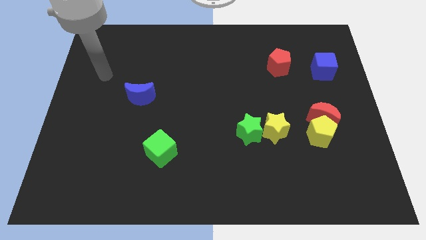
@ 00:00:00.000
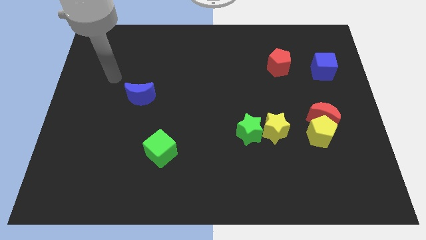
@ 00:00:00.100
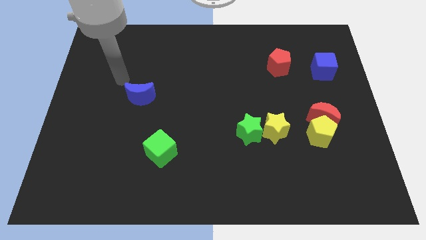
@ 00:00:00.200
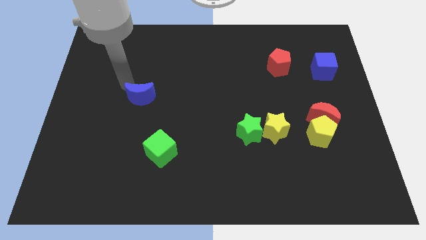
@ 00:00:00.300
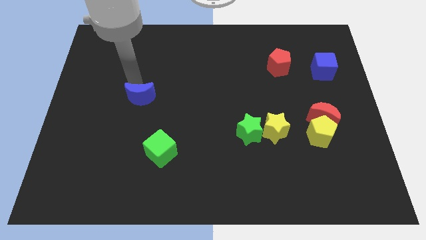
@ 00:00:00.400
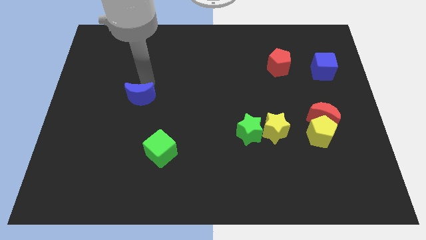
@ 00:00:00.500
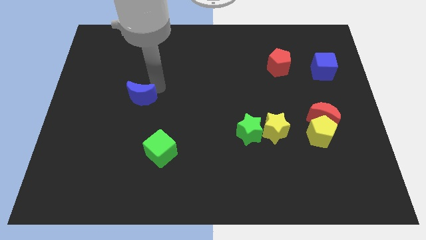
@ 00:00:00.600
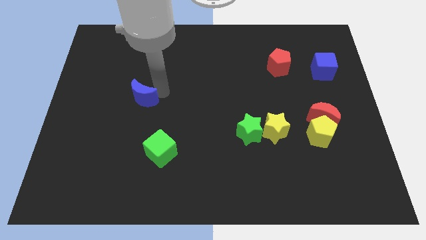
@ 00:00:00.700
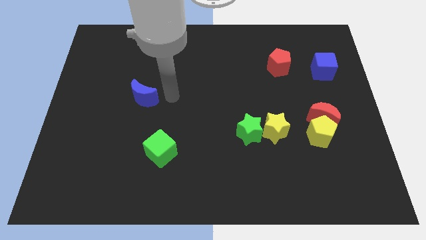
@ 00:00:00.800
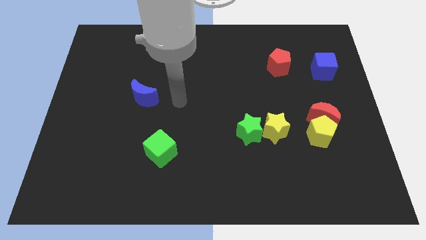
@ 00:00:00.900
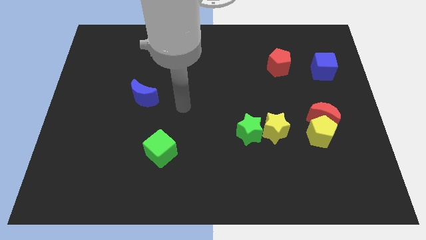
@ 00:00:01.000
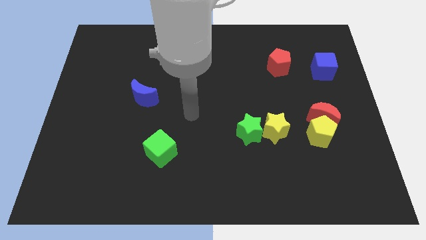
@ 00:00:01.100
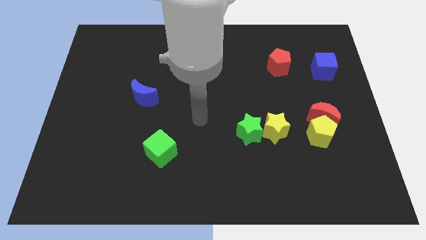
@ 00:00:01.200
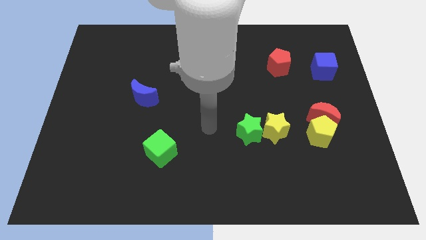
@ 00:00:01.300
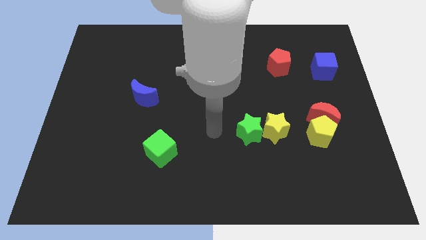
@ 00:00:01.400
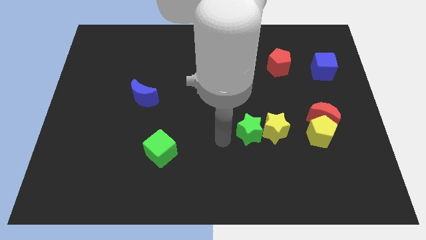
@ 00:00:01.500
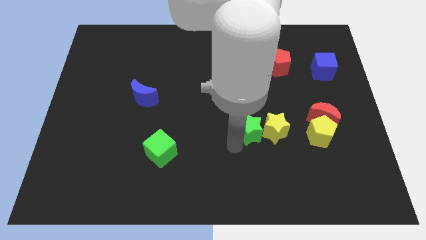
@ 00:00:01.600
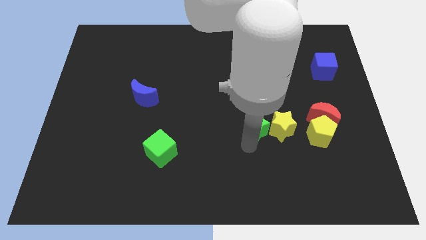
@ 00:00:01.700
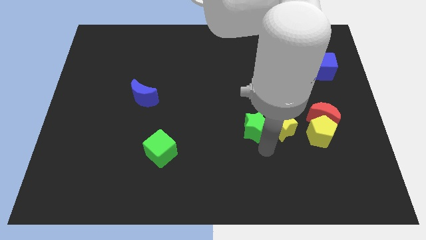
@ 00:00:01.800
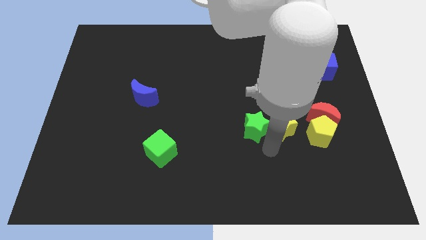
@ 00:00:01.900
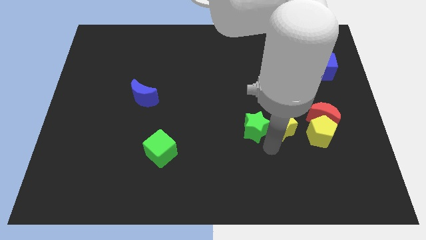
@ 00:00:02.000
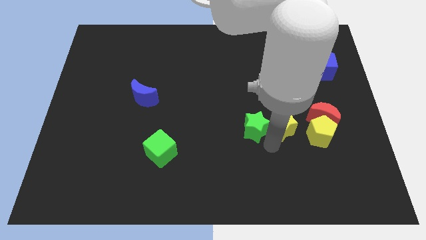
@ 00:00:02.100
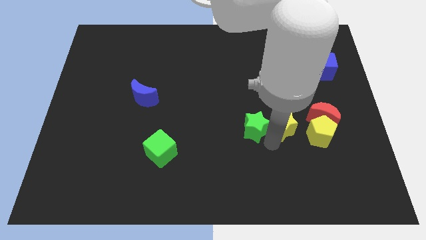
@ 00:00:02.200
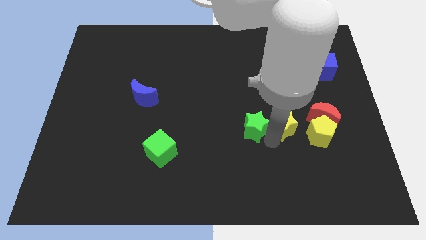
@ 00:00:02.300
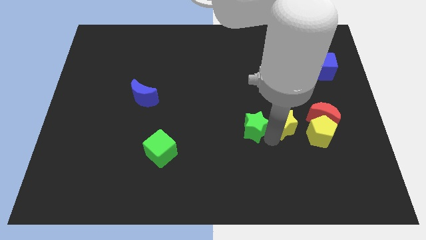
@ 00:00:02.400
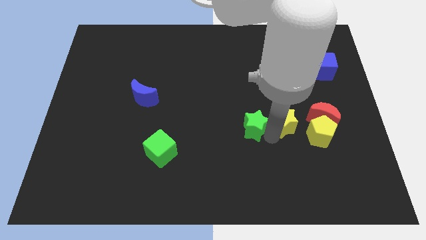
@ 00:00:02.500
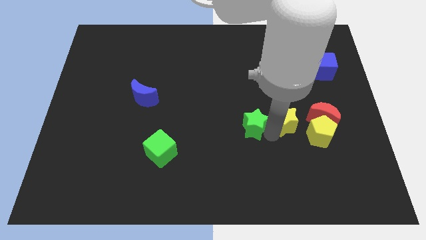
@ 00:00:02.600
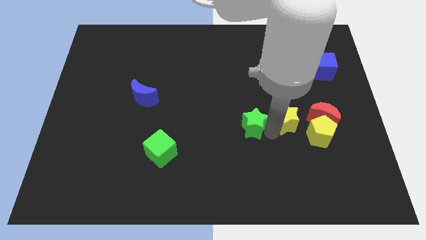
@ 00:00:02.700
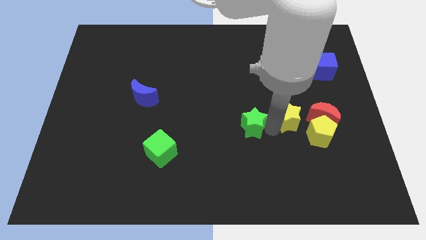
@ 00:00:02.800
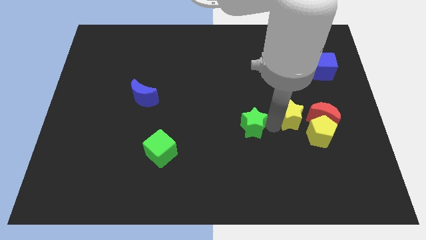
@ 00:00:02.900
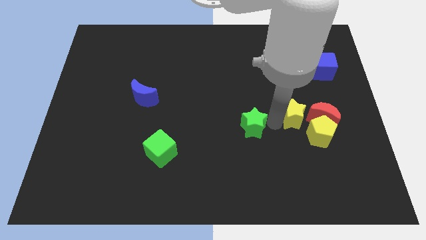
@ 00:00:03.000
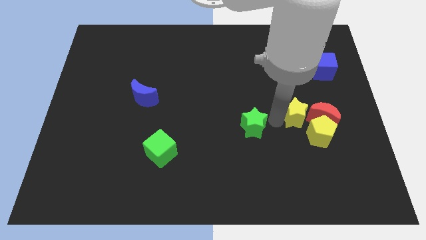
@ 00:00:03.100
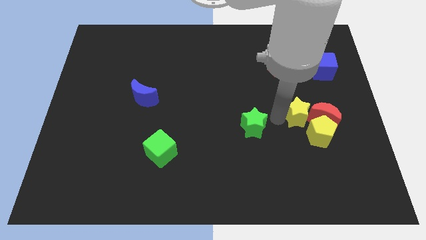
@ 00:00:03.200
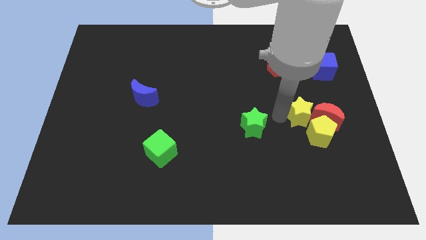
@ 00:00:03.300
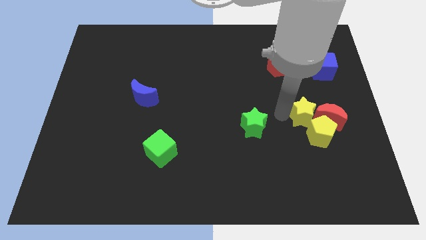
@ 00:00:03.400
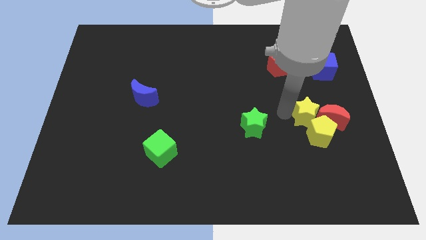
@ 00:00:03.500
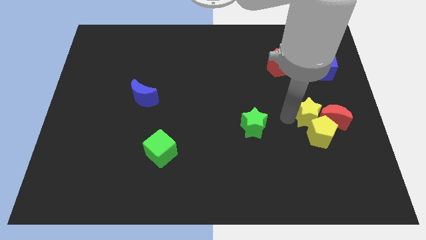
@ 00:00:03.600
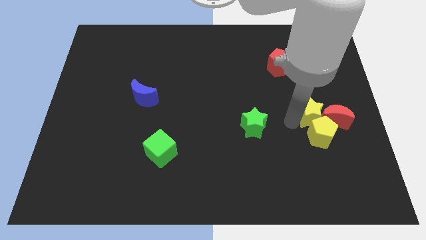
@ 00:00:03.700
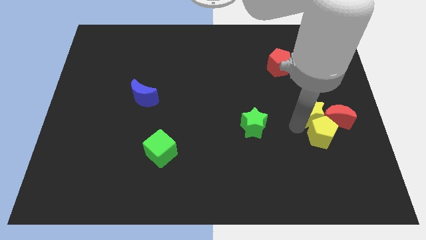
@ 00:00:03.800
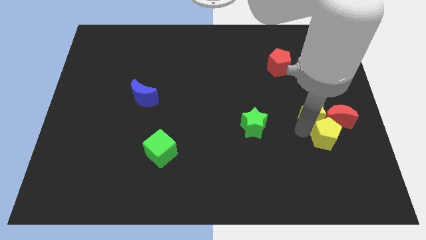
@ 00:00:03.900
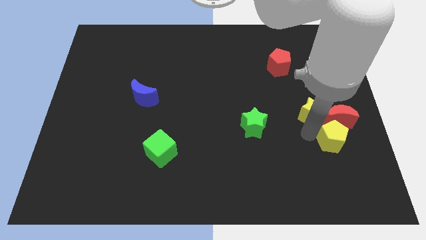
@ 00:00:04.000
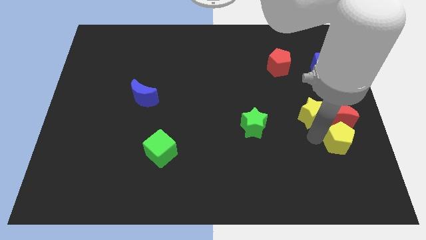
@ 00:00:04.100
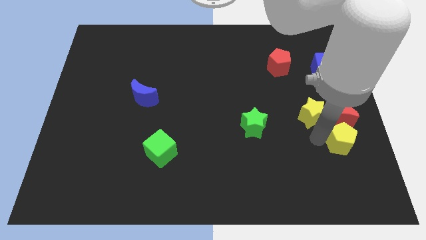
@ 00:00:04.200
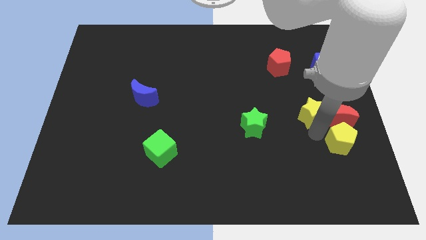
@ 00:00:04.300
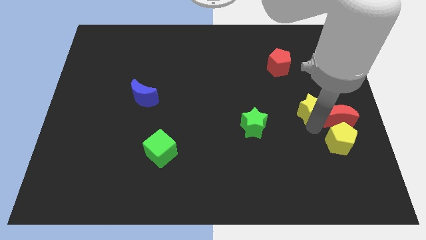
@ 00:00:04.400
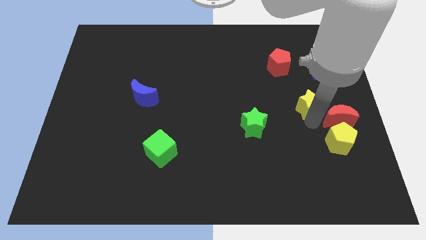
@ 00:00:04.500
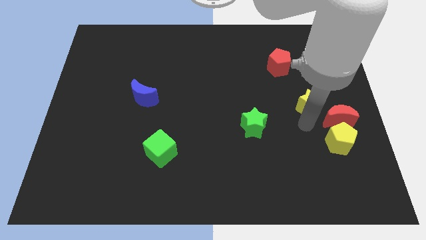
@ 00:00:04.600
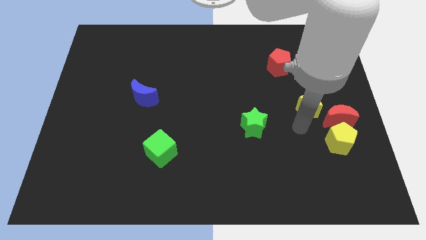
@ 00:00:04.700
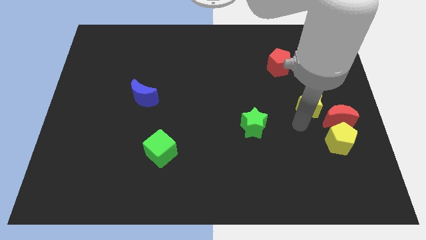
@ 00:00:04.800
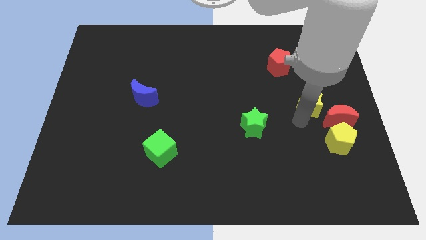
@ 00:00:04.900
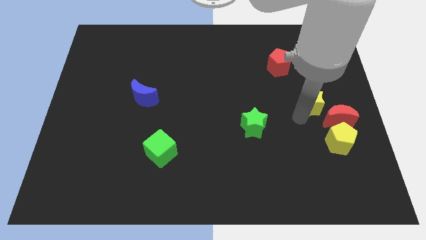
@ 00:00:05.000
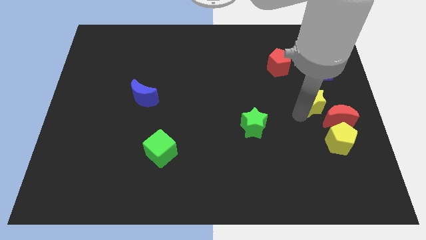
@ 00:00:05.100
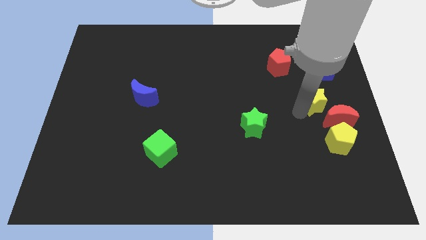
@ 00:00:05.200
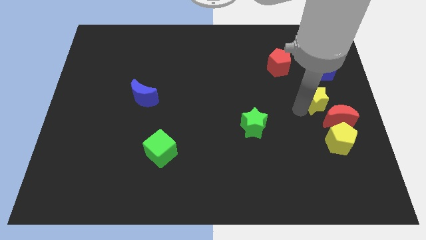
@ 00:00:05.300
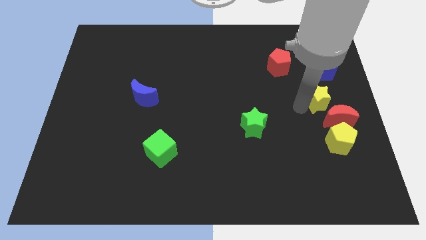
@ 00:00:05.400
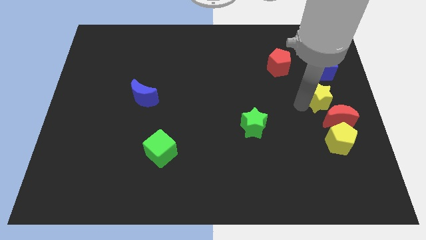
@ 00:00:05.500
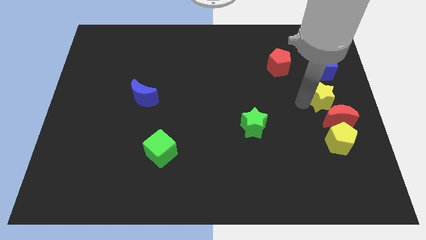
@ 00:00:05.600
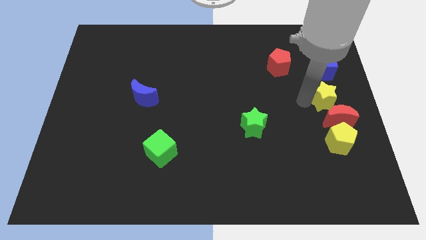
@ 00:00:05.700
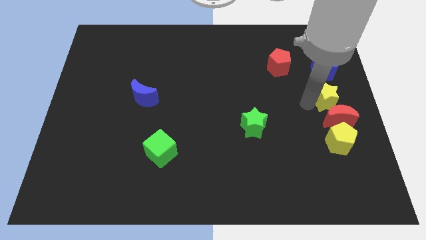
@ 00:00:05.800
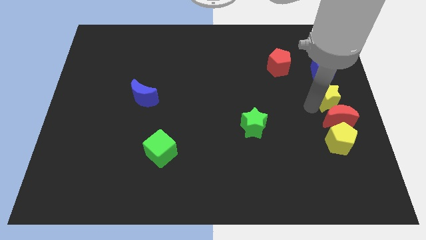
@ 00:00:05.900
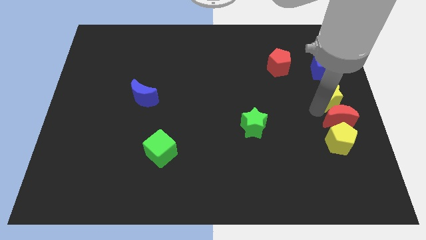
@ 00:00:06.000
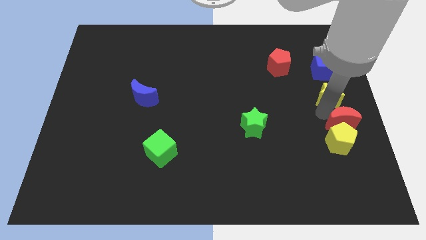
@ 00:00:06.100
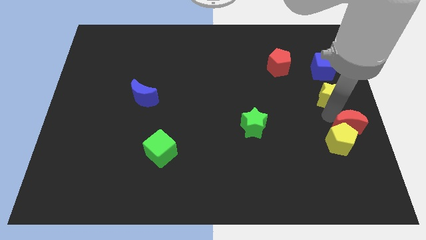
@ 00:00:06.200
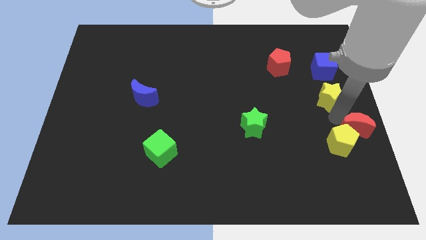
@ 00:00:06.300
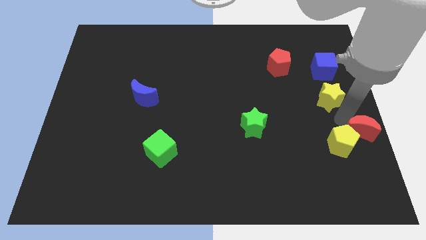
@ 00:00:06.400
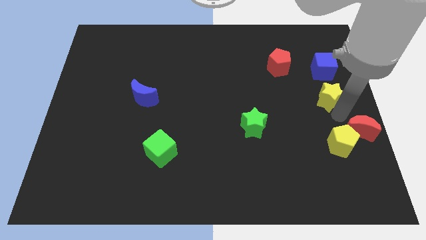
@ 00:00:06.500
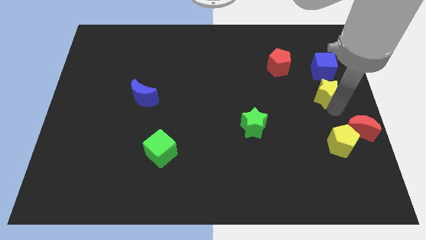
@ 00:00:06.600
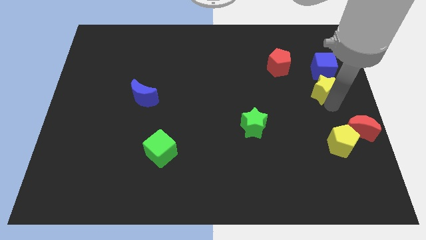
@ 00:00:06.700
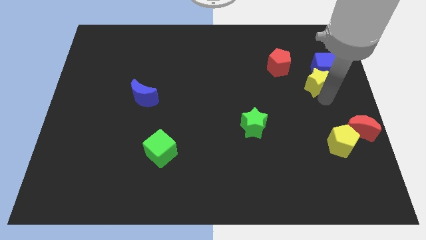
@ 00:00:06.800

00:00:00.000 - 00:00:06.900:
put the yellow star next to the blue cube

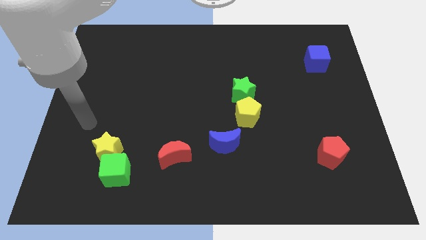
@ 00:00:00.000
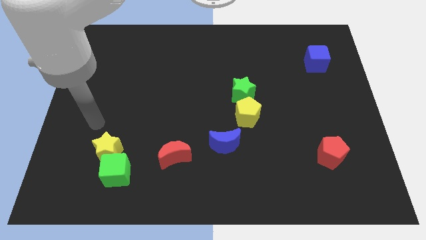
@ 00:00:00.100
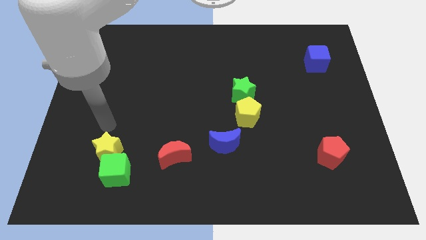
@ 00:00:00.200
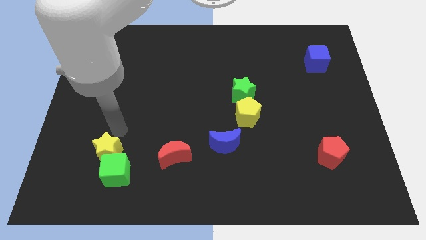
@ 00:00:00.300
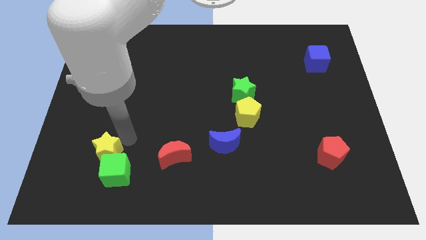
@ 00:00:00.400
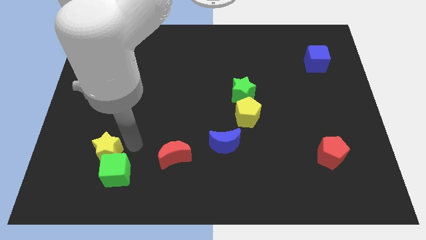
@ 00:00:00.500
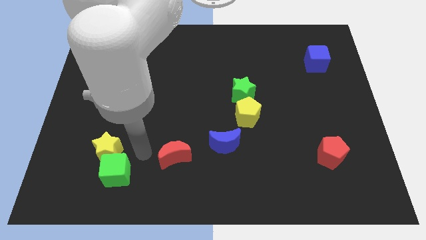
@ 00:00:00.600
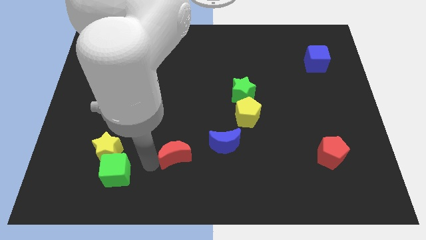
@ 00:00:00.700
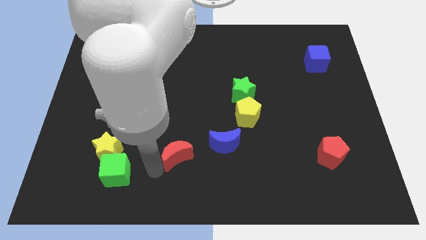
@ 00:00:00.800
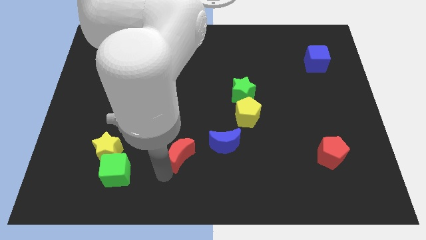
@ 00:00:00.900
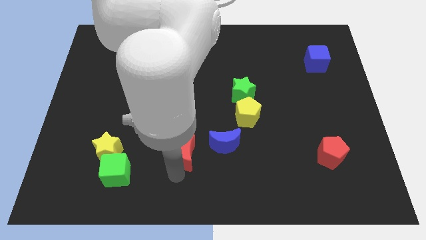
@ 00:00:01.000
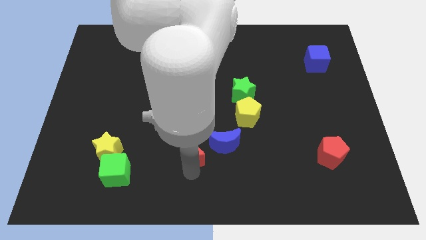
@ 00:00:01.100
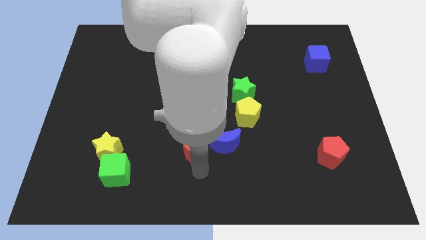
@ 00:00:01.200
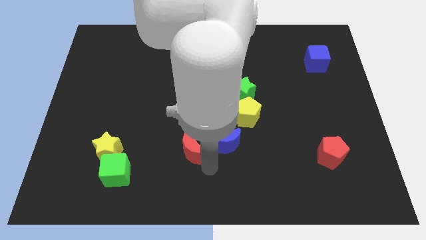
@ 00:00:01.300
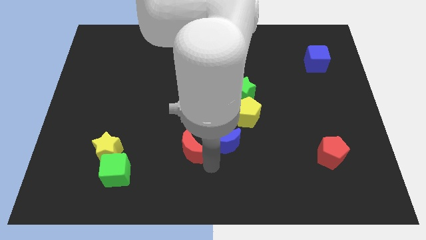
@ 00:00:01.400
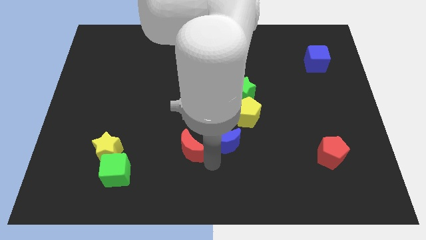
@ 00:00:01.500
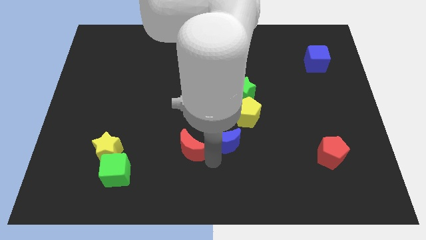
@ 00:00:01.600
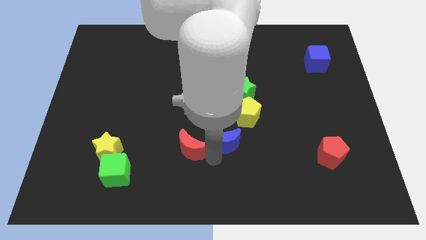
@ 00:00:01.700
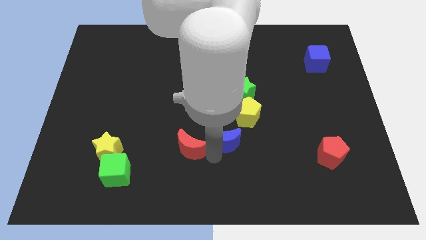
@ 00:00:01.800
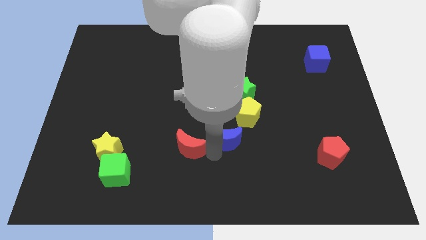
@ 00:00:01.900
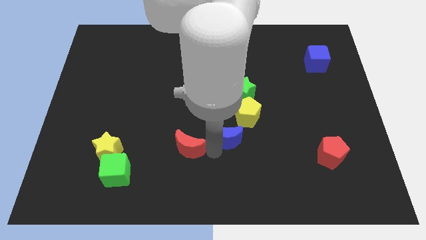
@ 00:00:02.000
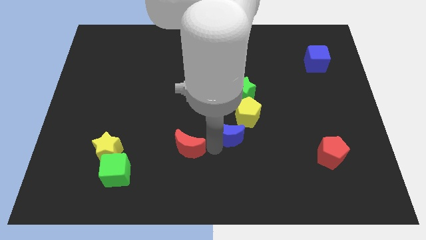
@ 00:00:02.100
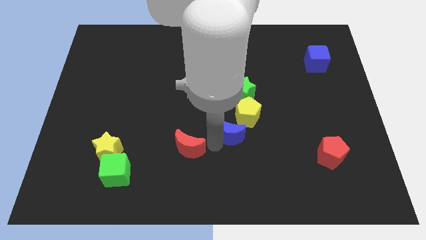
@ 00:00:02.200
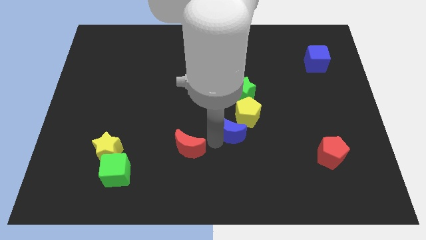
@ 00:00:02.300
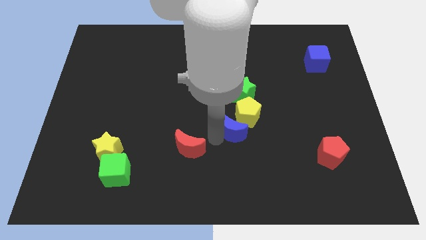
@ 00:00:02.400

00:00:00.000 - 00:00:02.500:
move the blue moon towards the yellow pentagon
